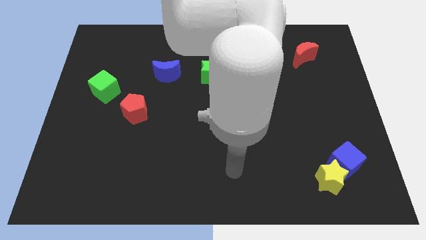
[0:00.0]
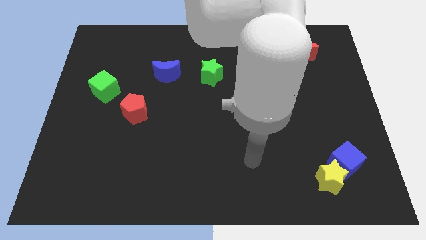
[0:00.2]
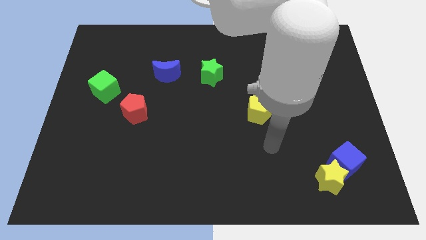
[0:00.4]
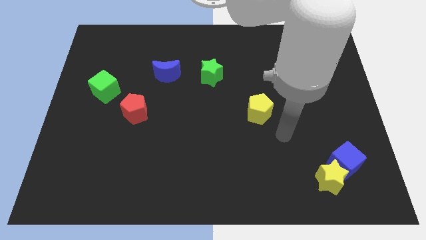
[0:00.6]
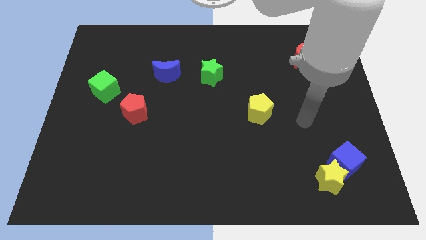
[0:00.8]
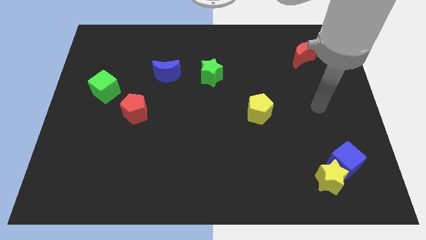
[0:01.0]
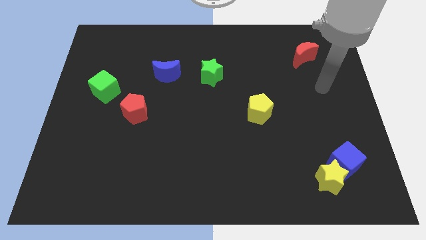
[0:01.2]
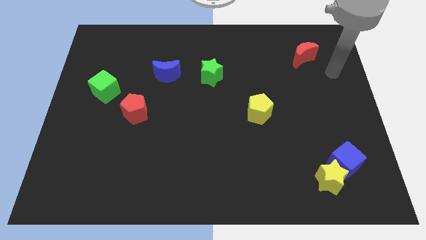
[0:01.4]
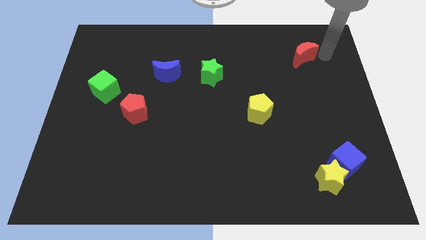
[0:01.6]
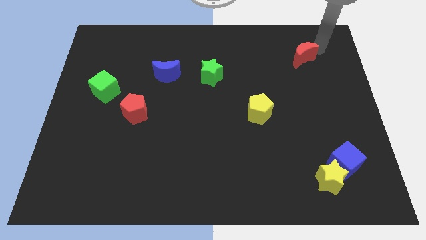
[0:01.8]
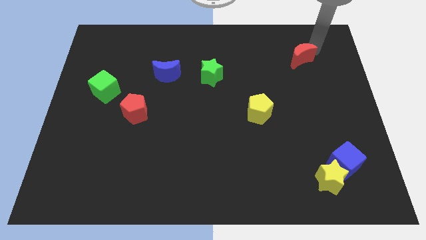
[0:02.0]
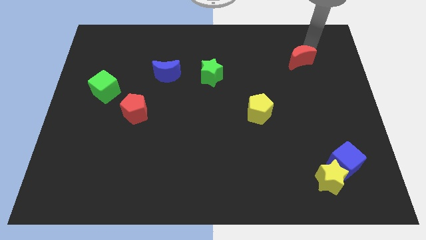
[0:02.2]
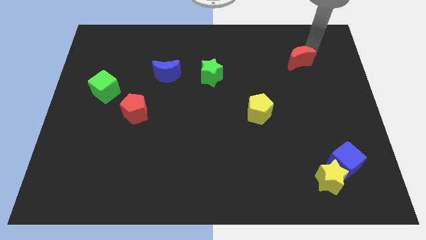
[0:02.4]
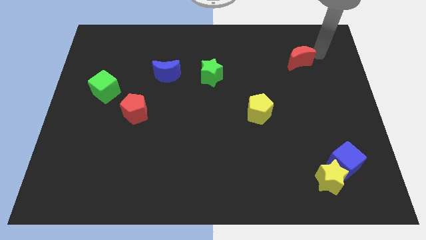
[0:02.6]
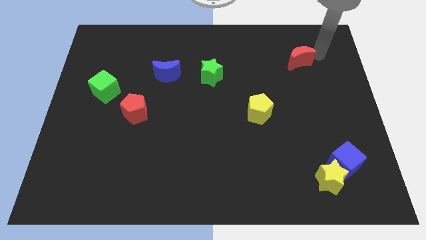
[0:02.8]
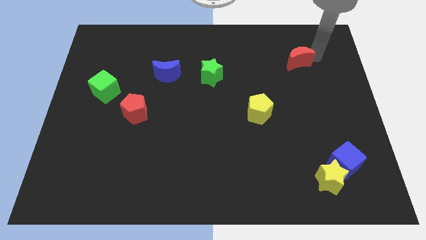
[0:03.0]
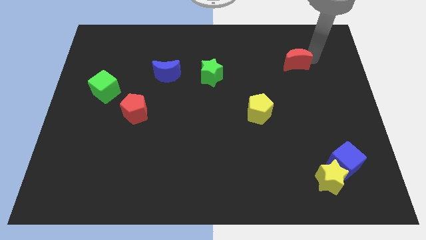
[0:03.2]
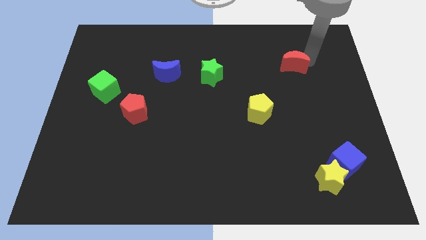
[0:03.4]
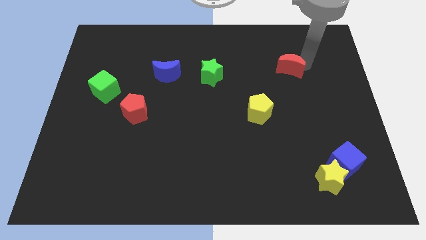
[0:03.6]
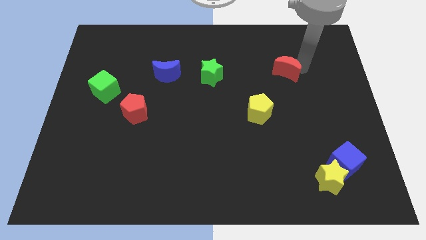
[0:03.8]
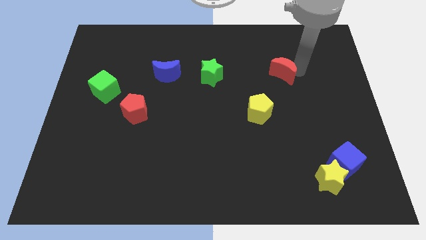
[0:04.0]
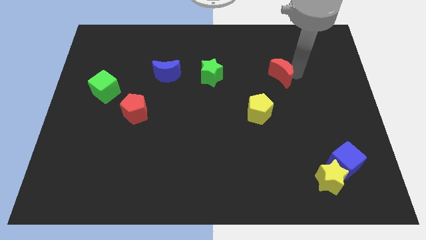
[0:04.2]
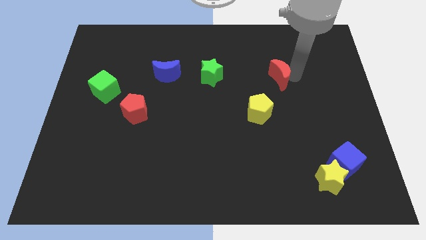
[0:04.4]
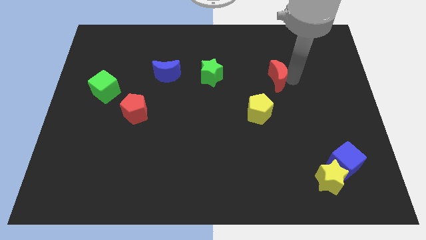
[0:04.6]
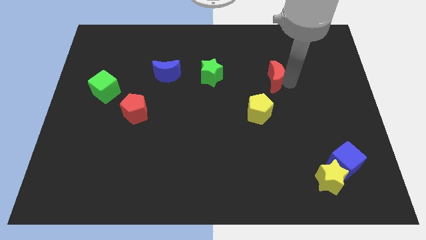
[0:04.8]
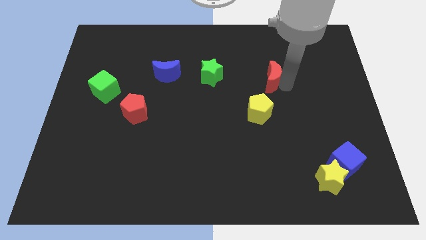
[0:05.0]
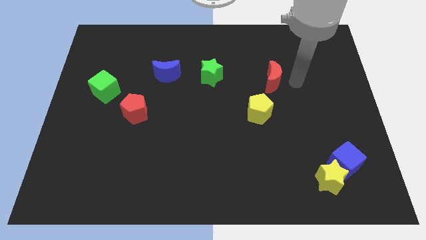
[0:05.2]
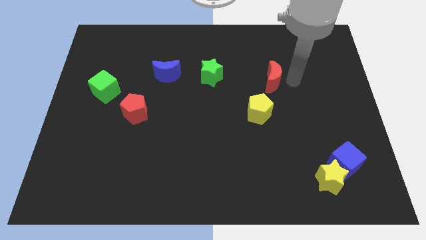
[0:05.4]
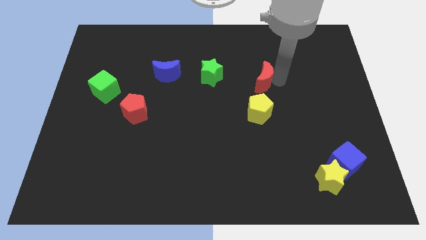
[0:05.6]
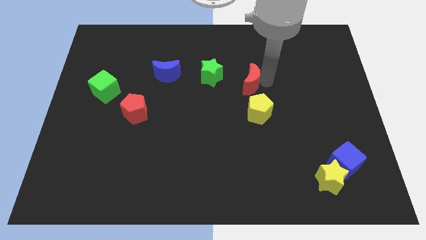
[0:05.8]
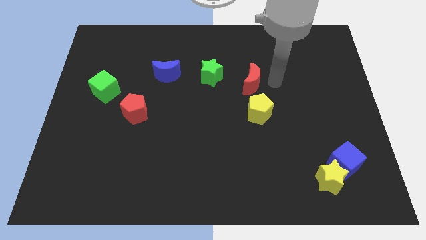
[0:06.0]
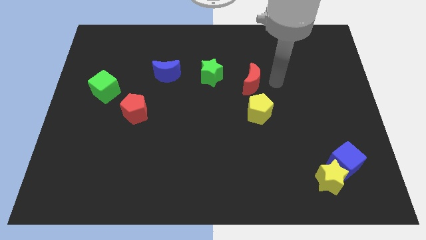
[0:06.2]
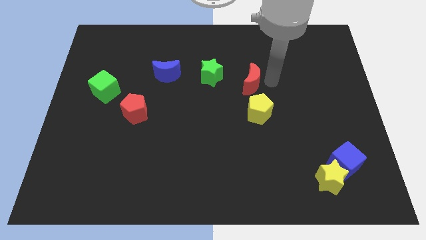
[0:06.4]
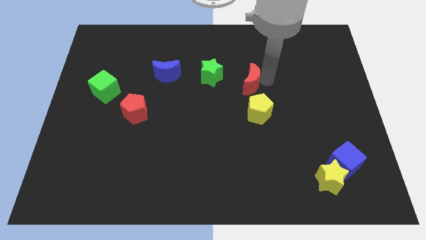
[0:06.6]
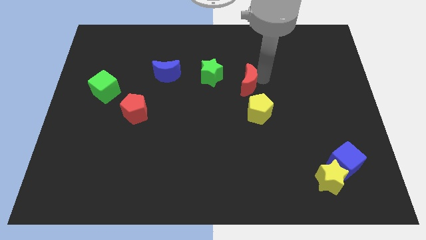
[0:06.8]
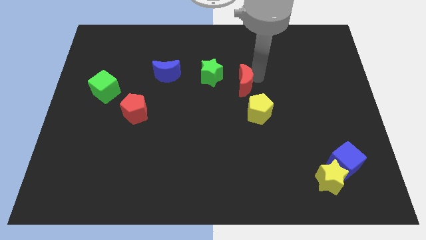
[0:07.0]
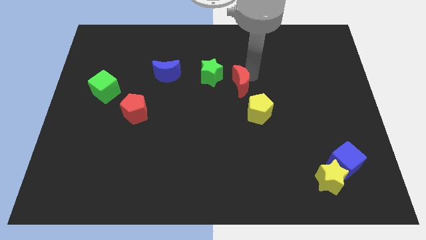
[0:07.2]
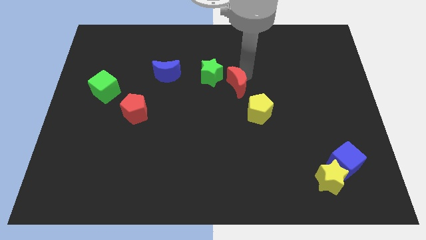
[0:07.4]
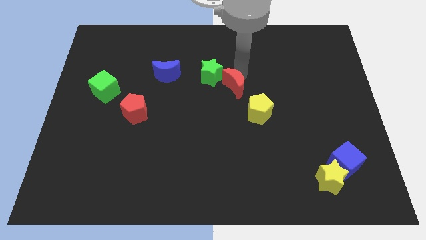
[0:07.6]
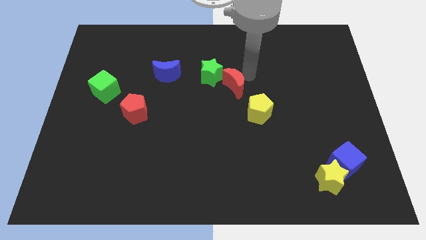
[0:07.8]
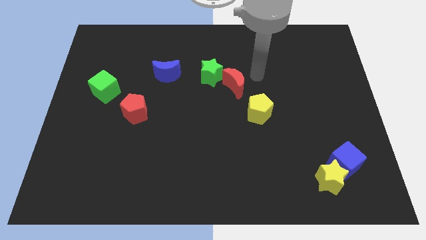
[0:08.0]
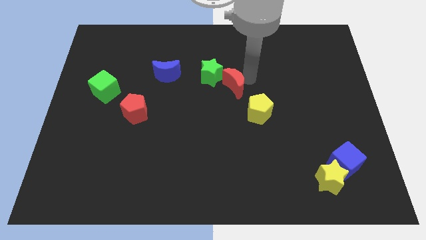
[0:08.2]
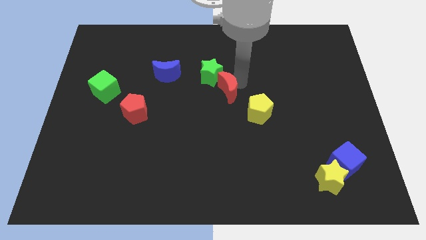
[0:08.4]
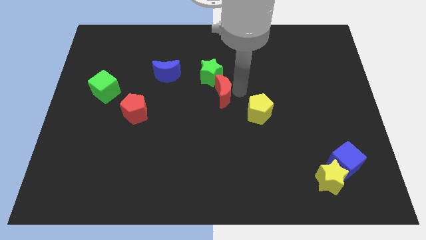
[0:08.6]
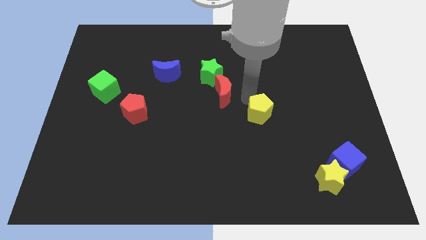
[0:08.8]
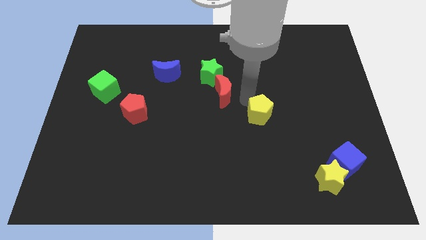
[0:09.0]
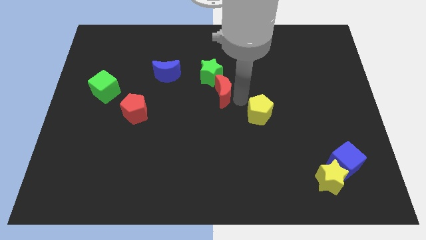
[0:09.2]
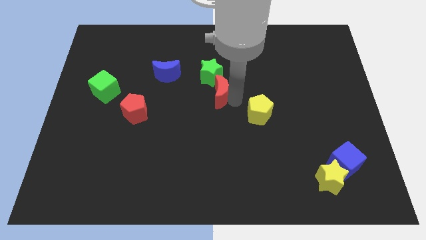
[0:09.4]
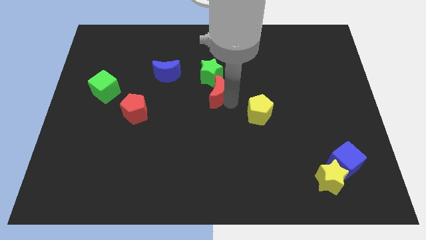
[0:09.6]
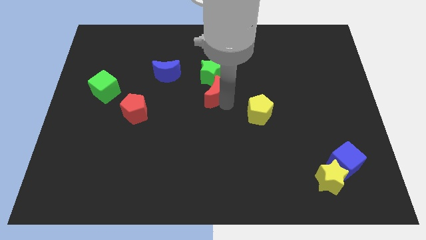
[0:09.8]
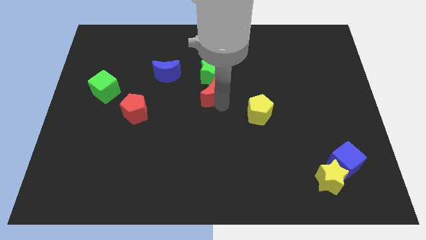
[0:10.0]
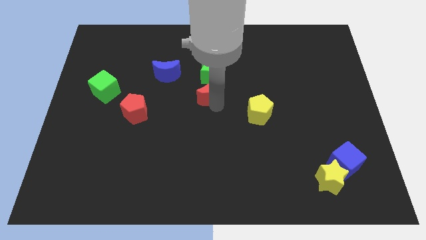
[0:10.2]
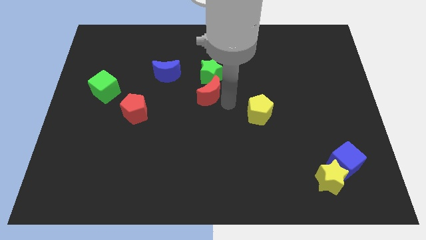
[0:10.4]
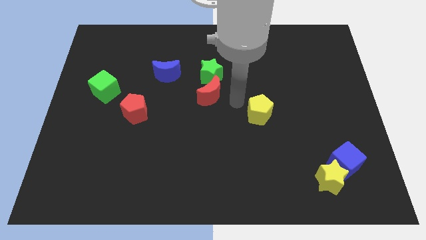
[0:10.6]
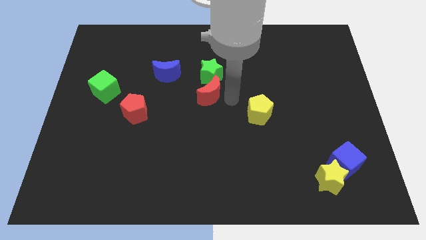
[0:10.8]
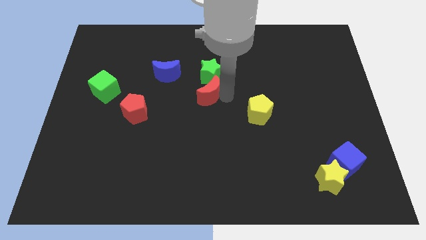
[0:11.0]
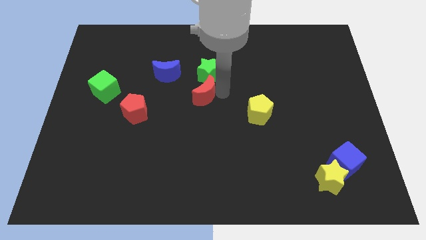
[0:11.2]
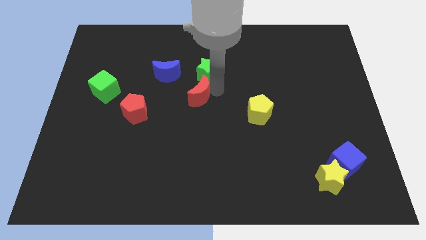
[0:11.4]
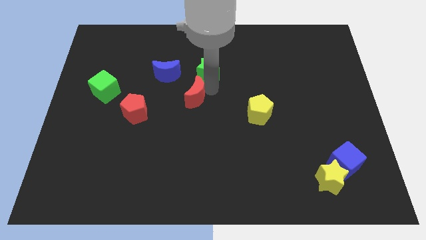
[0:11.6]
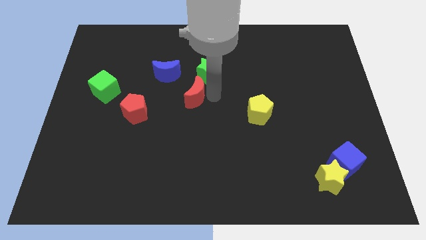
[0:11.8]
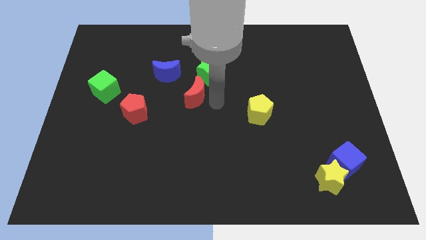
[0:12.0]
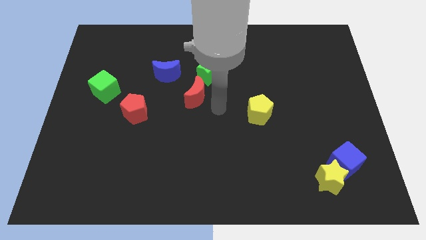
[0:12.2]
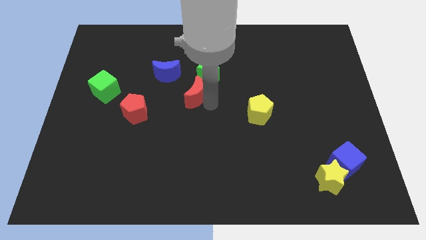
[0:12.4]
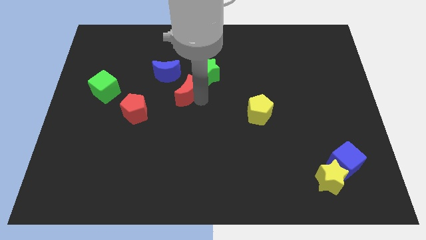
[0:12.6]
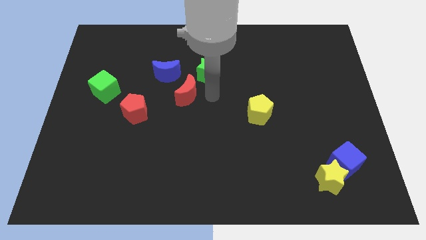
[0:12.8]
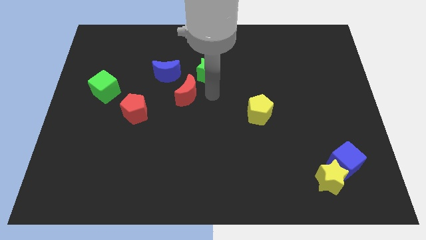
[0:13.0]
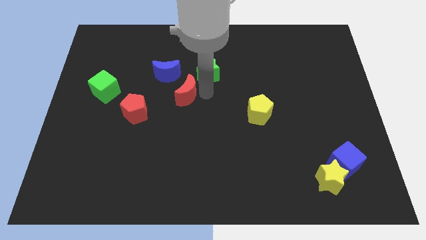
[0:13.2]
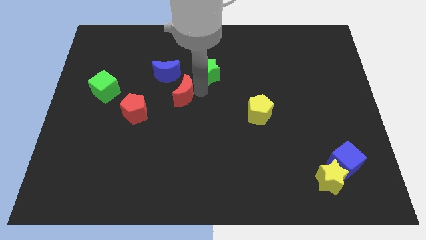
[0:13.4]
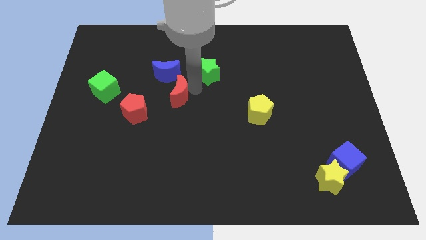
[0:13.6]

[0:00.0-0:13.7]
put the red moon to the top right of the red pentagon

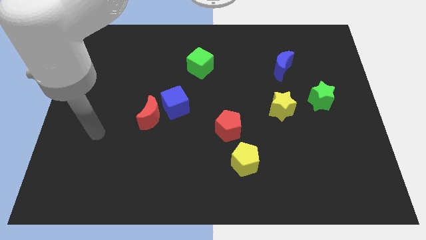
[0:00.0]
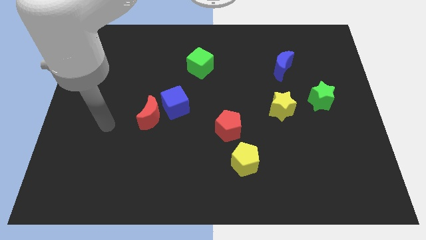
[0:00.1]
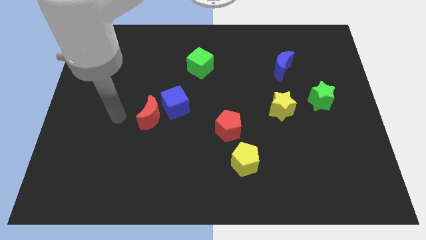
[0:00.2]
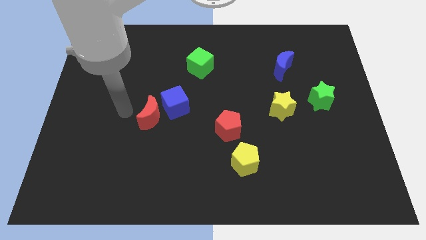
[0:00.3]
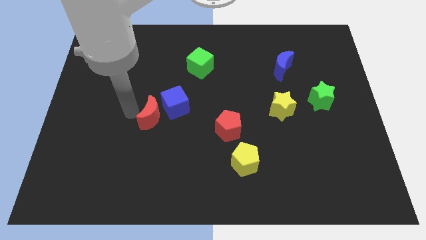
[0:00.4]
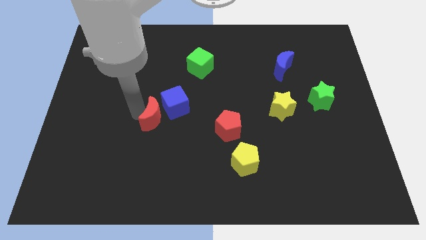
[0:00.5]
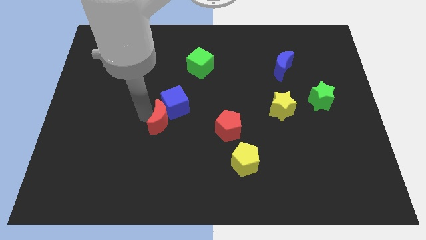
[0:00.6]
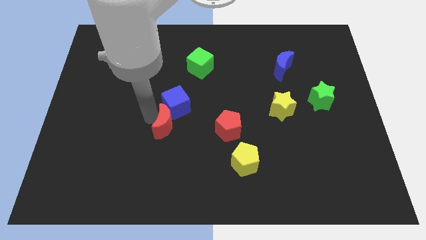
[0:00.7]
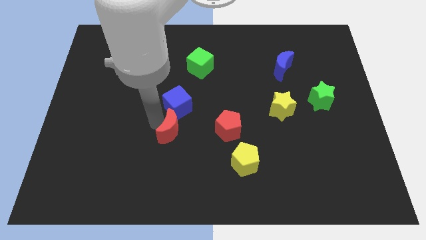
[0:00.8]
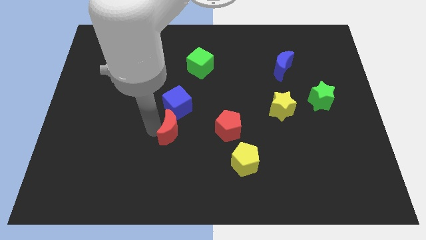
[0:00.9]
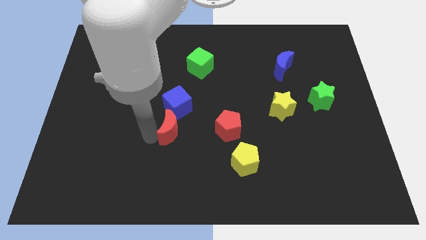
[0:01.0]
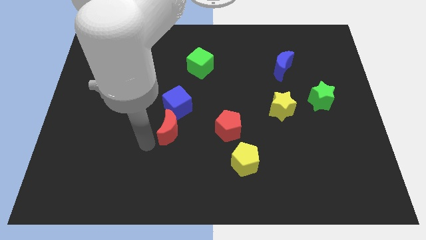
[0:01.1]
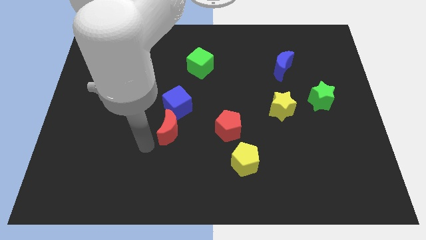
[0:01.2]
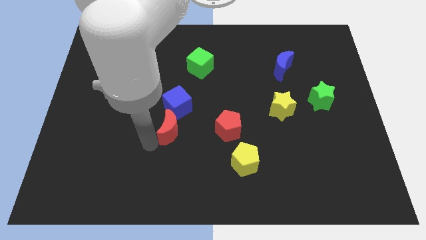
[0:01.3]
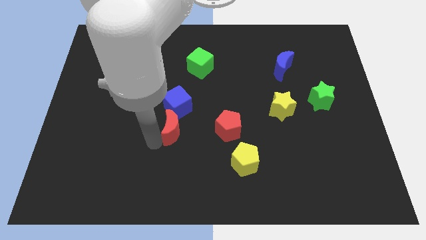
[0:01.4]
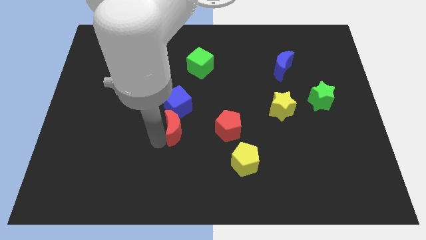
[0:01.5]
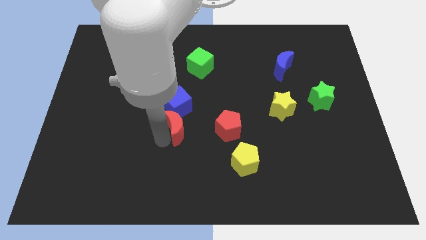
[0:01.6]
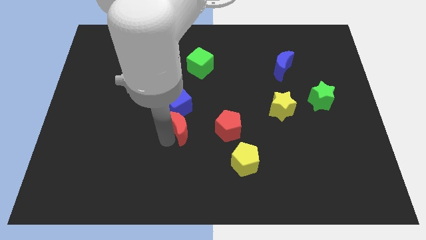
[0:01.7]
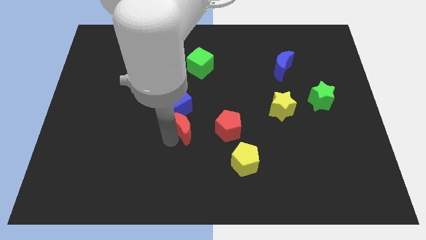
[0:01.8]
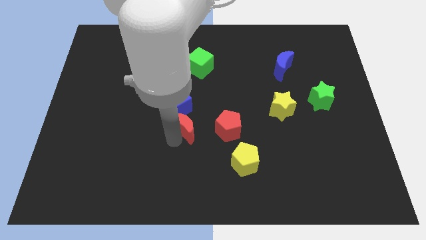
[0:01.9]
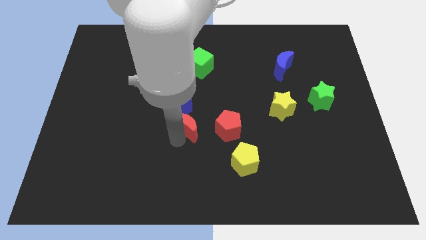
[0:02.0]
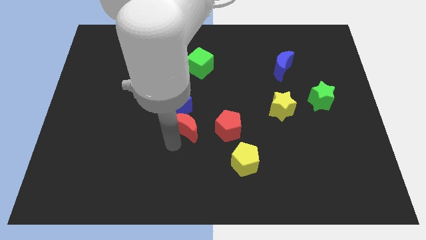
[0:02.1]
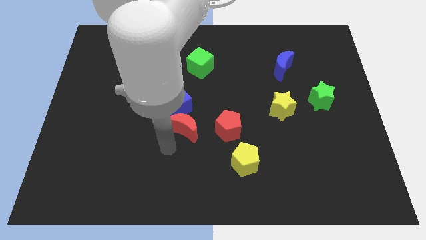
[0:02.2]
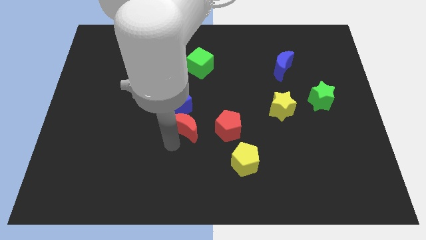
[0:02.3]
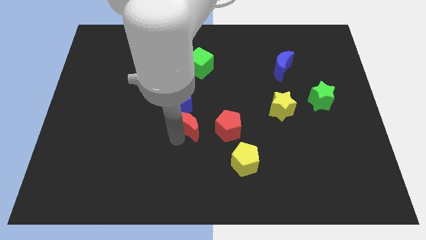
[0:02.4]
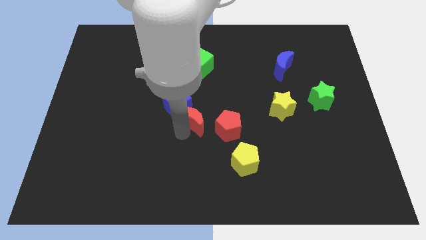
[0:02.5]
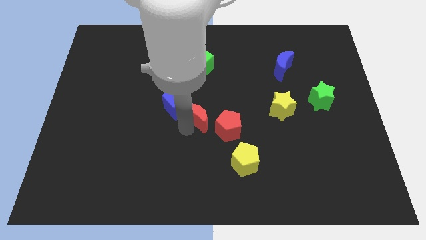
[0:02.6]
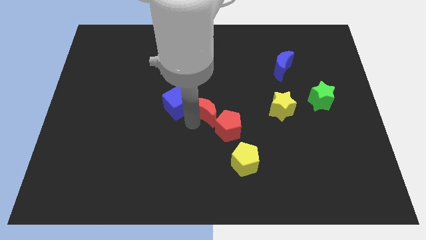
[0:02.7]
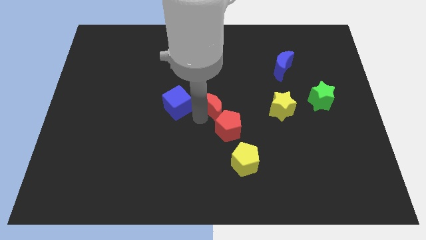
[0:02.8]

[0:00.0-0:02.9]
put the red moon to the top of the red pentagon
